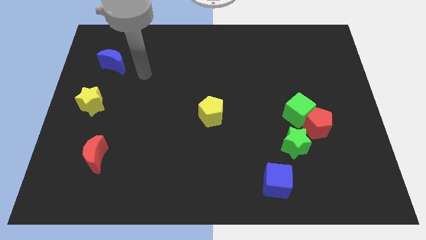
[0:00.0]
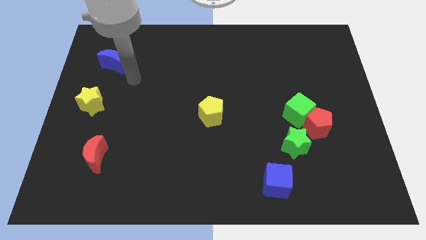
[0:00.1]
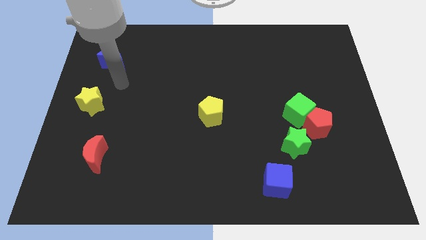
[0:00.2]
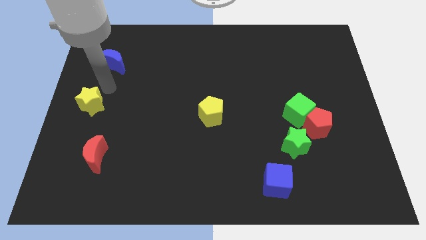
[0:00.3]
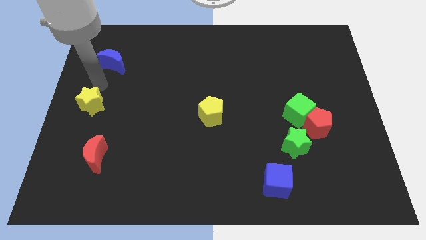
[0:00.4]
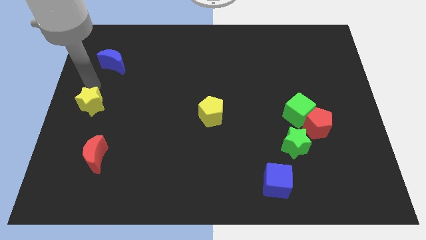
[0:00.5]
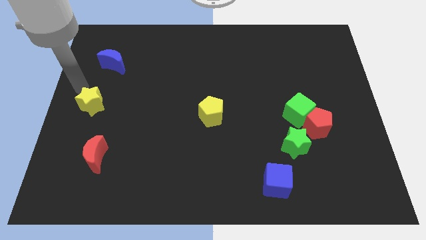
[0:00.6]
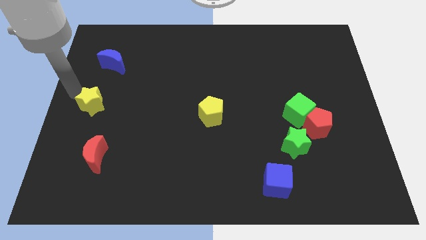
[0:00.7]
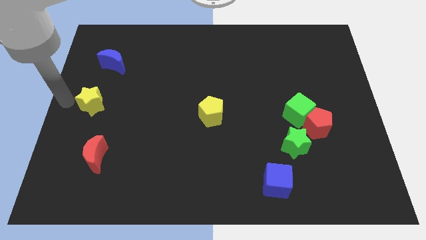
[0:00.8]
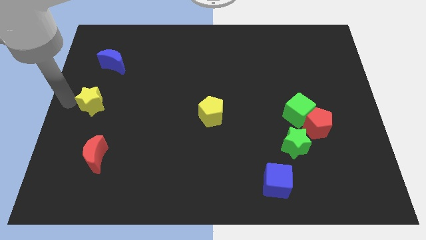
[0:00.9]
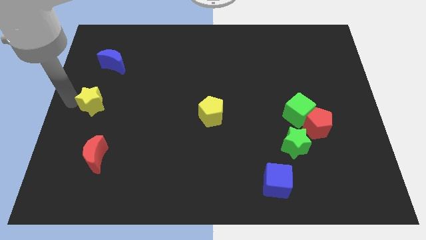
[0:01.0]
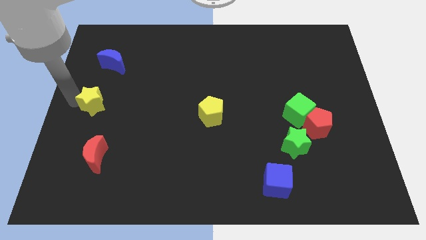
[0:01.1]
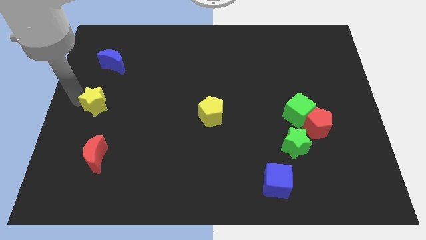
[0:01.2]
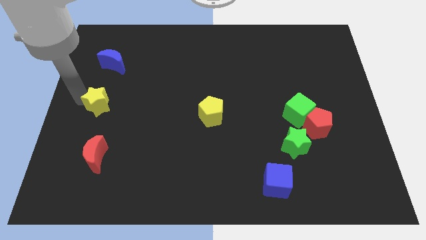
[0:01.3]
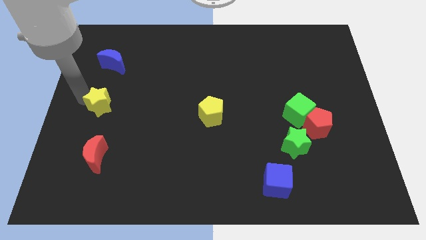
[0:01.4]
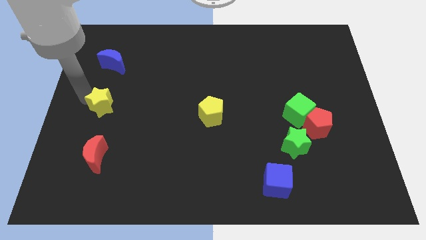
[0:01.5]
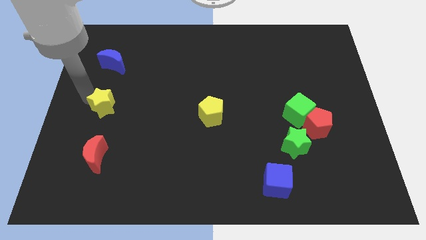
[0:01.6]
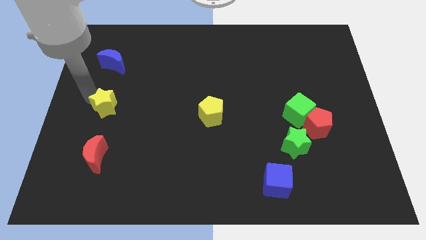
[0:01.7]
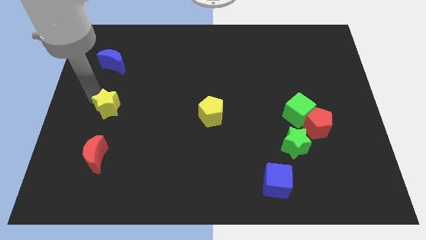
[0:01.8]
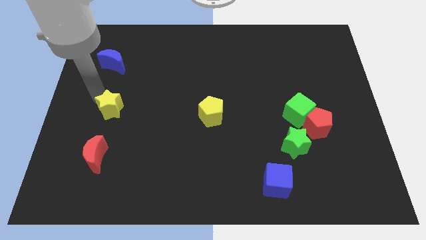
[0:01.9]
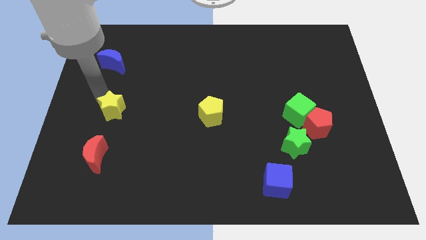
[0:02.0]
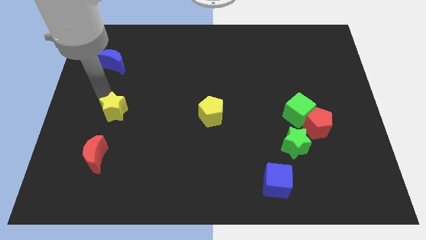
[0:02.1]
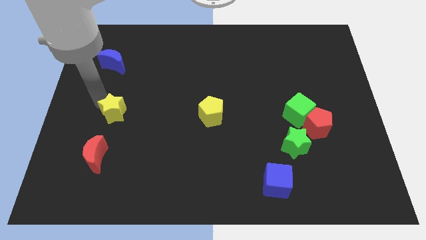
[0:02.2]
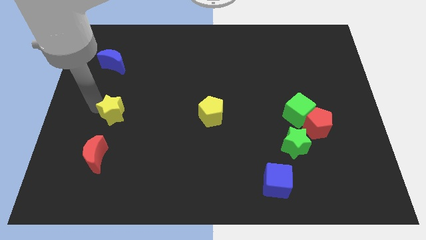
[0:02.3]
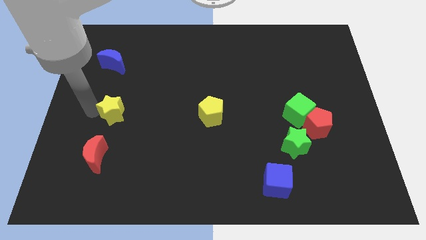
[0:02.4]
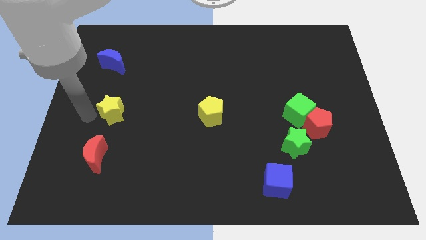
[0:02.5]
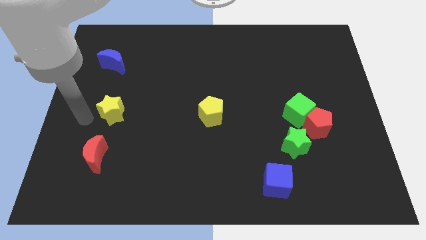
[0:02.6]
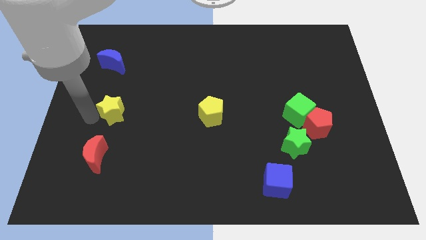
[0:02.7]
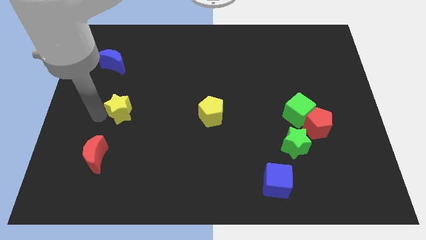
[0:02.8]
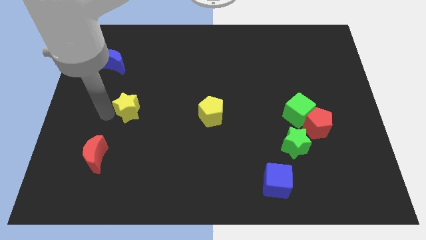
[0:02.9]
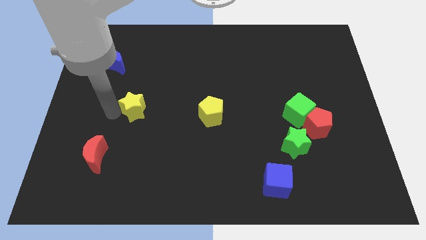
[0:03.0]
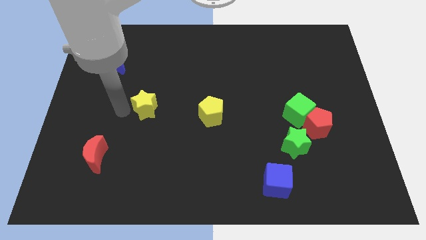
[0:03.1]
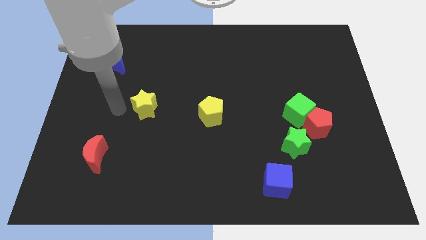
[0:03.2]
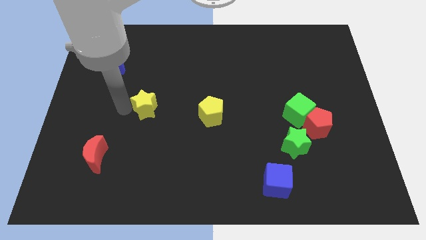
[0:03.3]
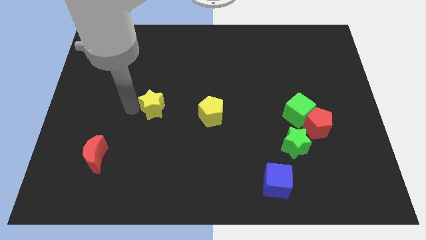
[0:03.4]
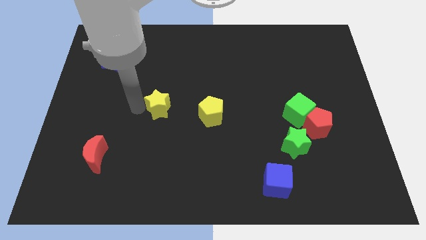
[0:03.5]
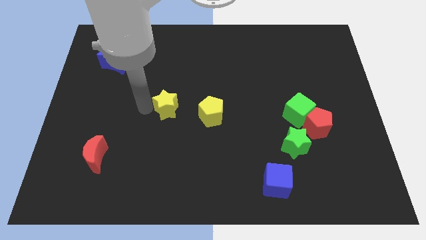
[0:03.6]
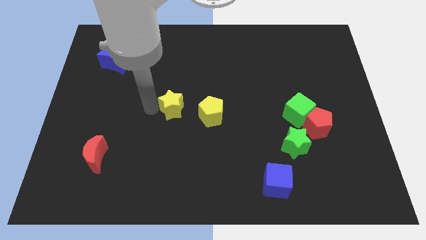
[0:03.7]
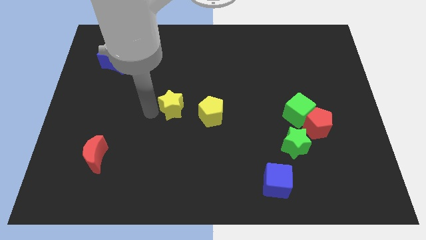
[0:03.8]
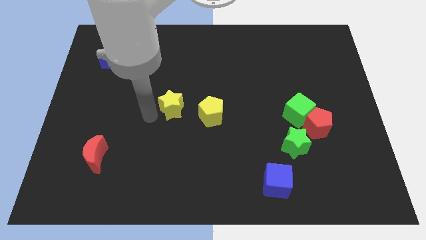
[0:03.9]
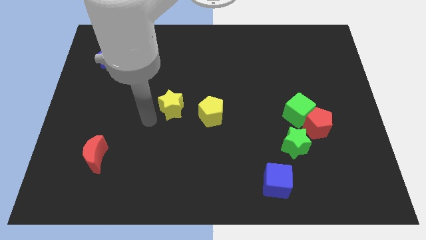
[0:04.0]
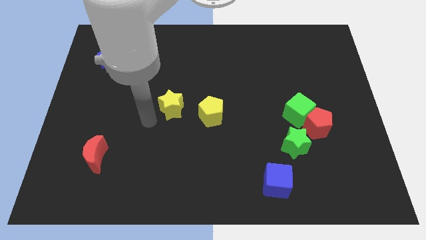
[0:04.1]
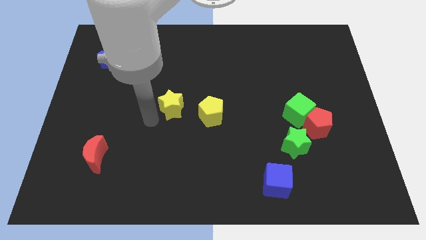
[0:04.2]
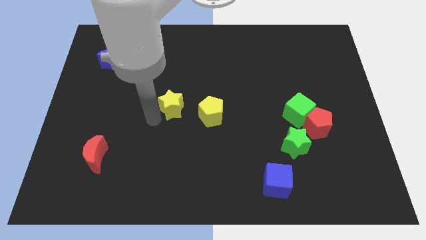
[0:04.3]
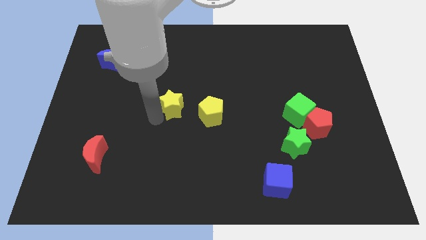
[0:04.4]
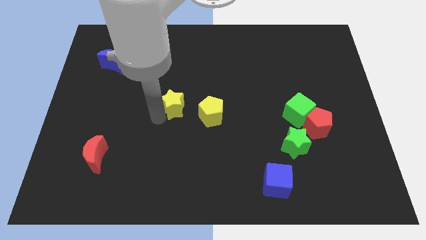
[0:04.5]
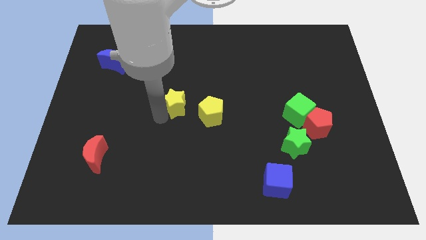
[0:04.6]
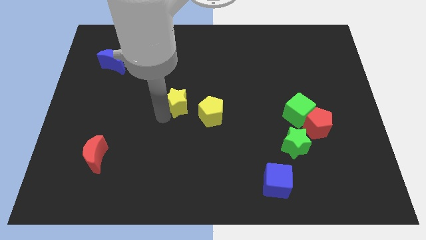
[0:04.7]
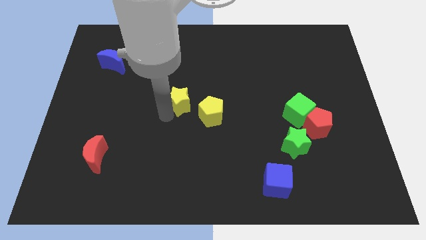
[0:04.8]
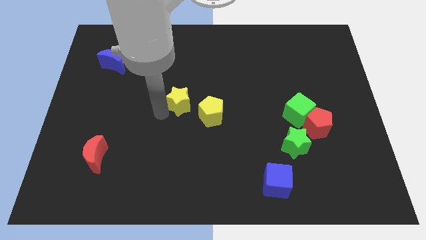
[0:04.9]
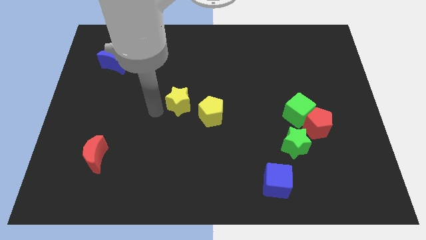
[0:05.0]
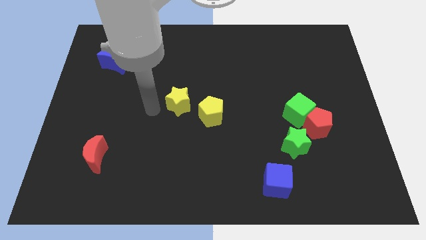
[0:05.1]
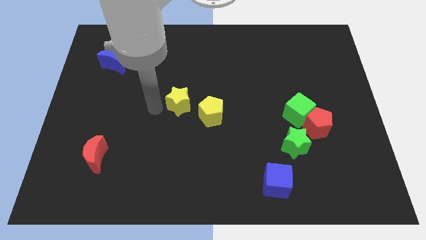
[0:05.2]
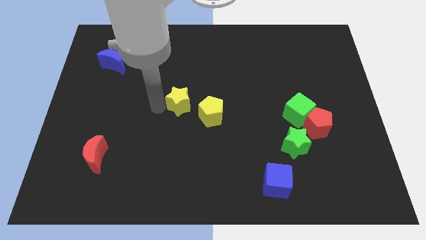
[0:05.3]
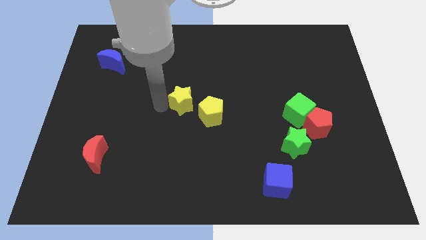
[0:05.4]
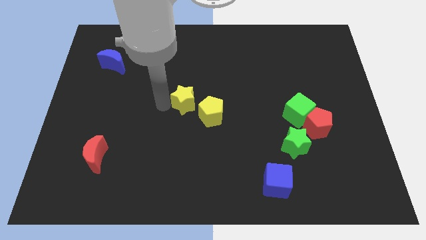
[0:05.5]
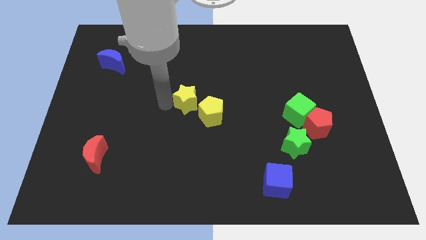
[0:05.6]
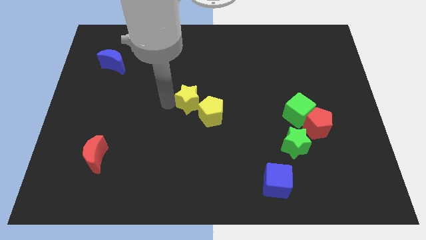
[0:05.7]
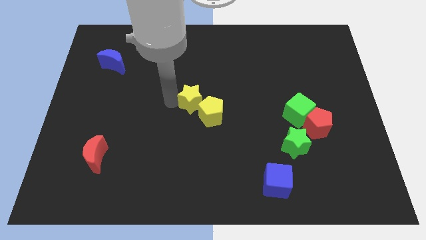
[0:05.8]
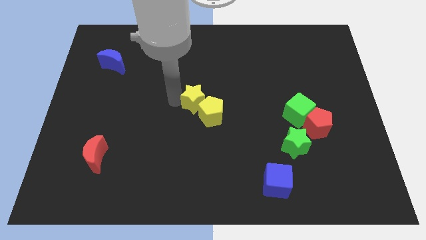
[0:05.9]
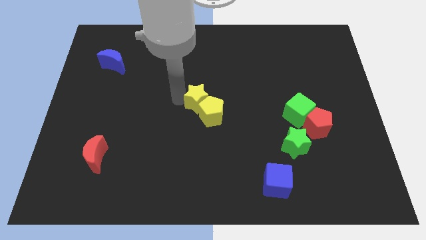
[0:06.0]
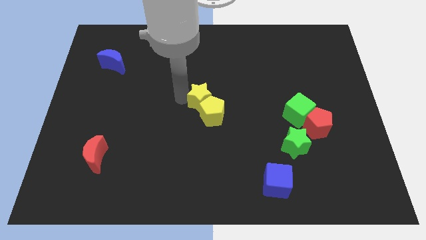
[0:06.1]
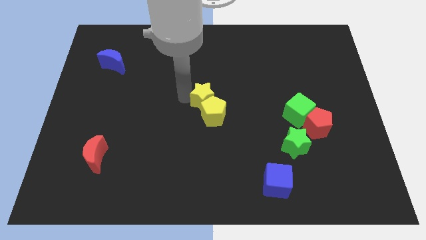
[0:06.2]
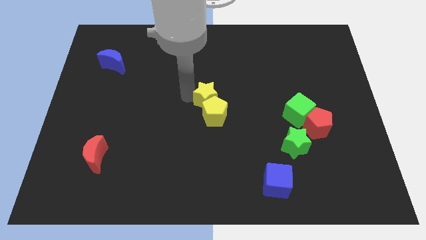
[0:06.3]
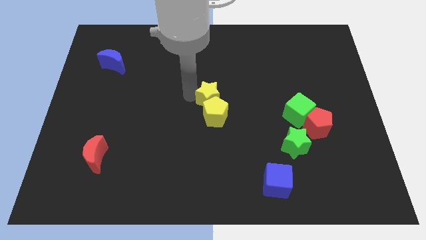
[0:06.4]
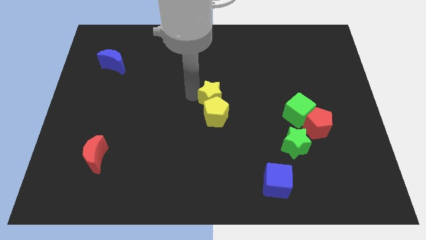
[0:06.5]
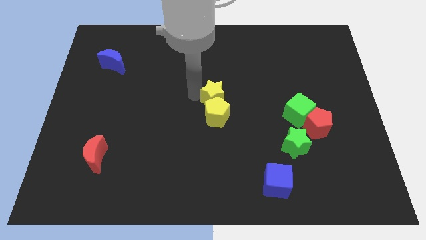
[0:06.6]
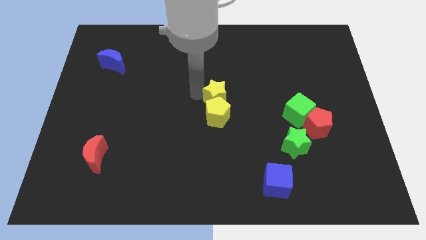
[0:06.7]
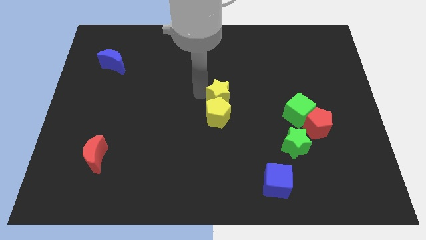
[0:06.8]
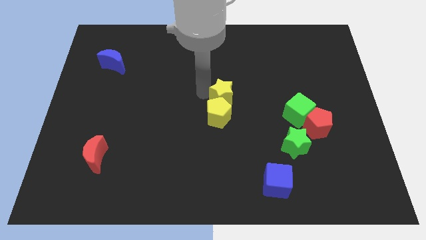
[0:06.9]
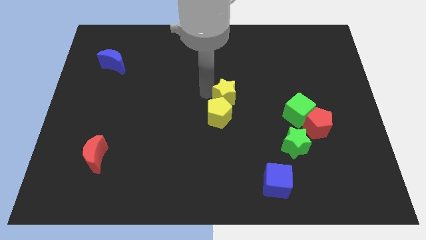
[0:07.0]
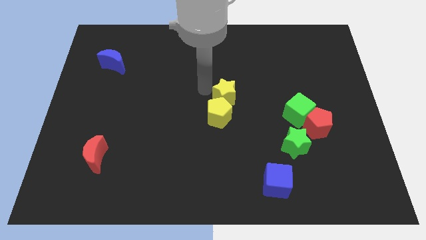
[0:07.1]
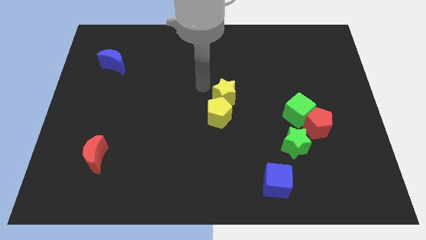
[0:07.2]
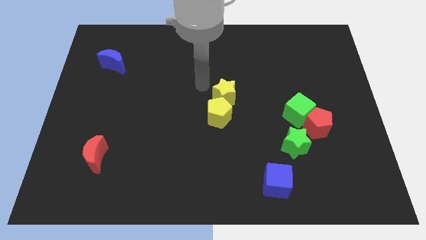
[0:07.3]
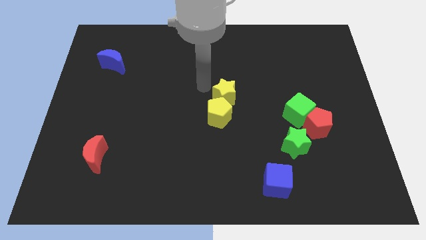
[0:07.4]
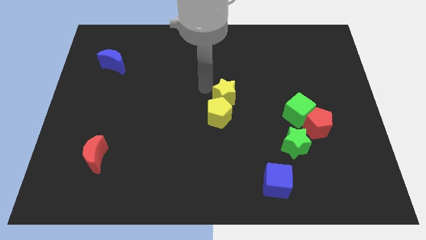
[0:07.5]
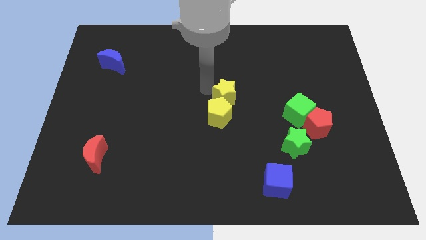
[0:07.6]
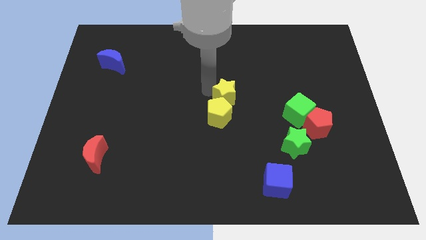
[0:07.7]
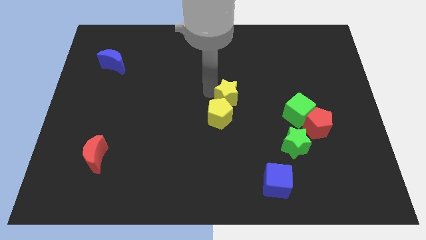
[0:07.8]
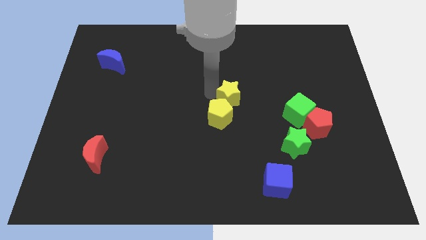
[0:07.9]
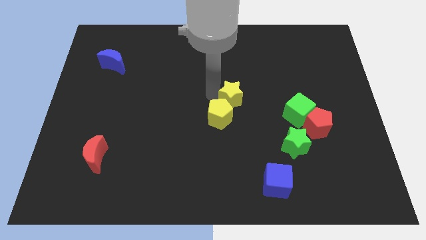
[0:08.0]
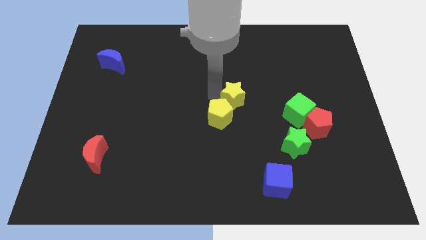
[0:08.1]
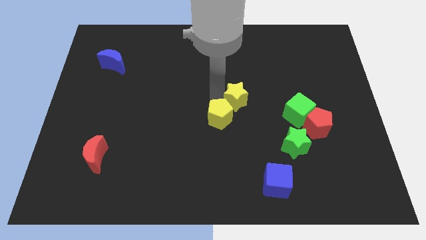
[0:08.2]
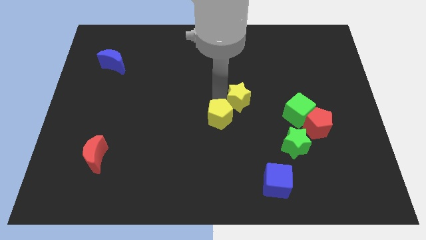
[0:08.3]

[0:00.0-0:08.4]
move the yellow star to the left side of the green cube
